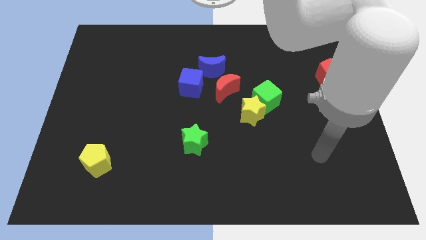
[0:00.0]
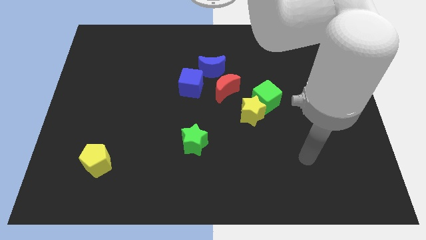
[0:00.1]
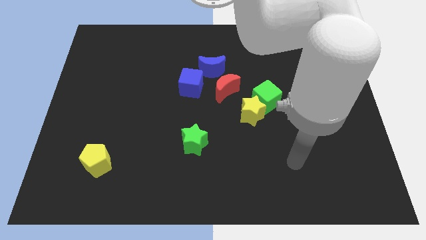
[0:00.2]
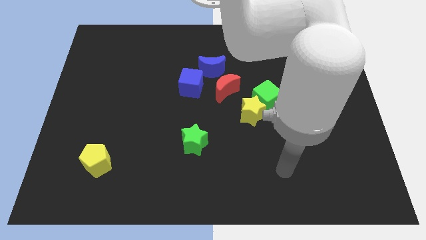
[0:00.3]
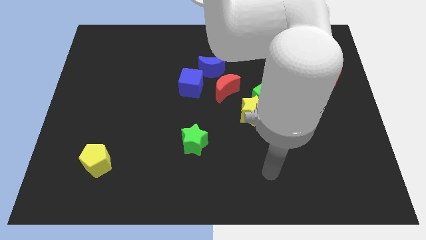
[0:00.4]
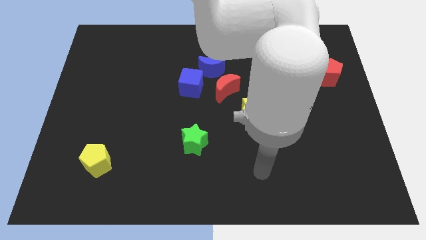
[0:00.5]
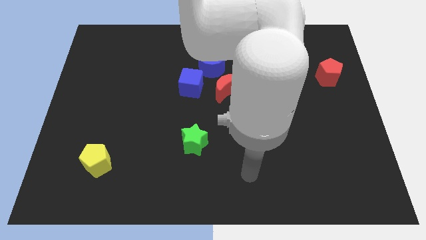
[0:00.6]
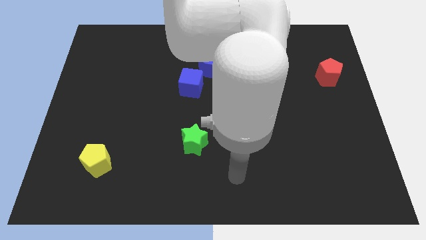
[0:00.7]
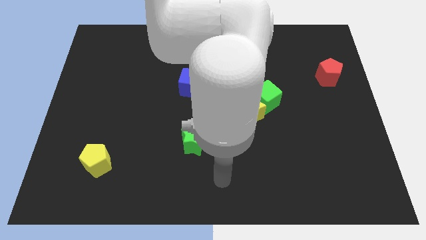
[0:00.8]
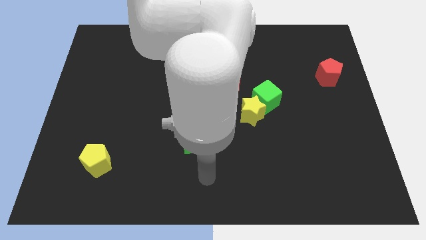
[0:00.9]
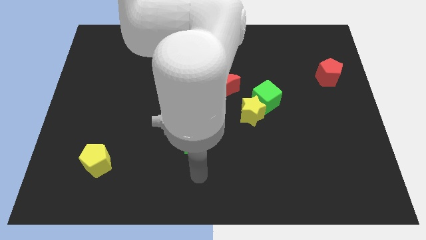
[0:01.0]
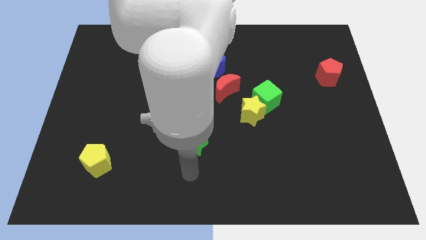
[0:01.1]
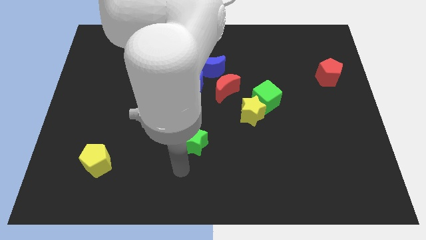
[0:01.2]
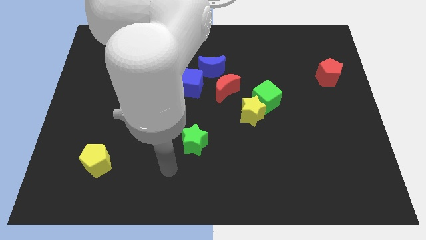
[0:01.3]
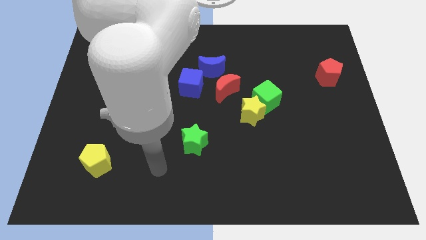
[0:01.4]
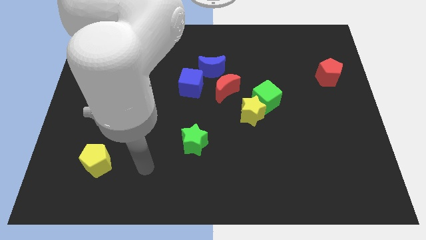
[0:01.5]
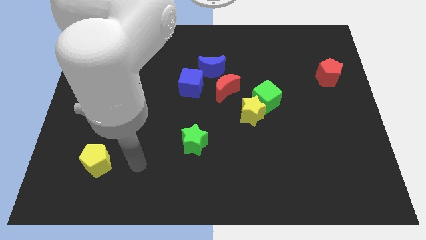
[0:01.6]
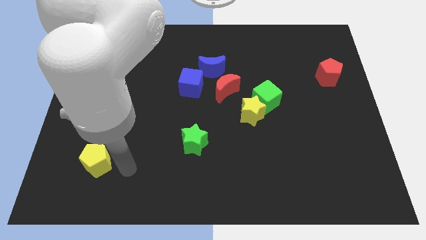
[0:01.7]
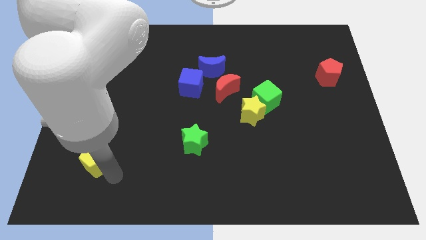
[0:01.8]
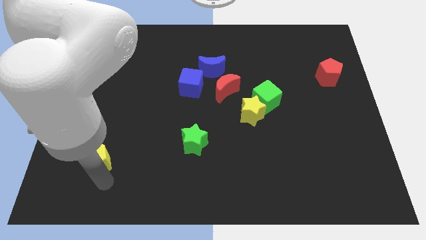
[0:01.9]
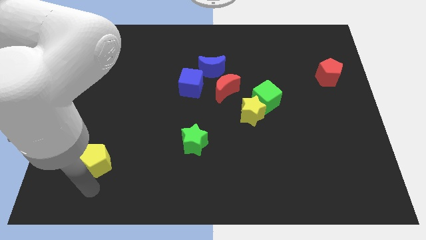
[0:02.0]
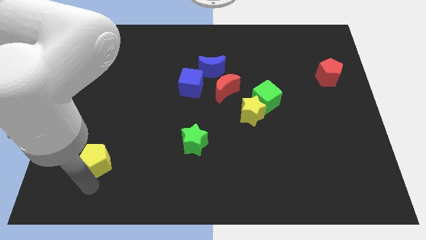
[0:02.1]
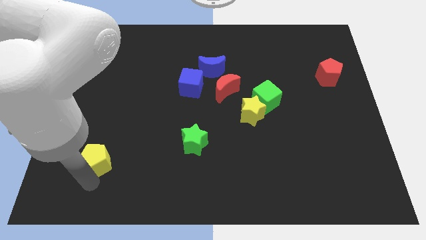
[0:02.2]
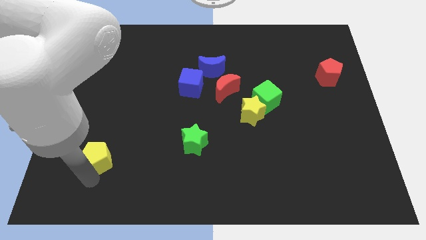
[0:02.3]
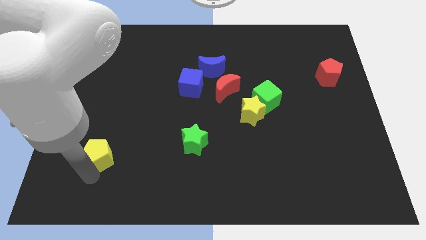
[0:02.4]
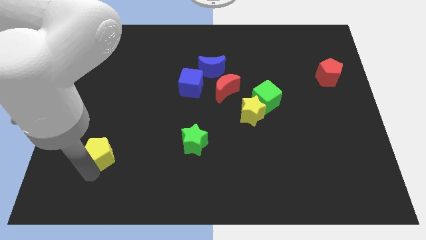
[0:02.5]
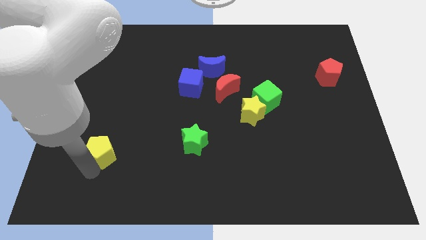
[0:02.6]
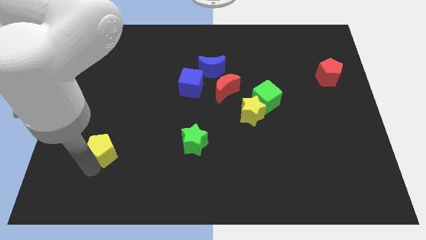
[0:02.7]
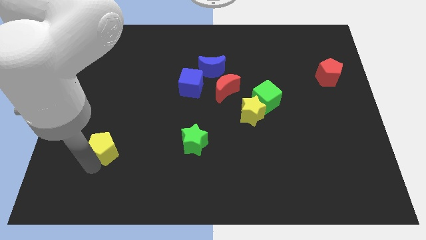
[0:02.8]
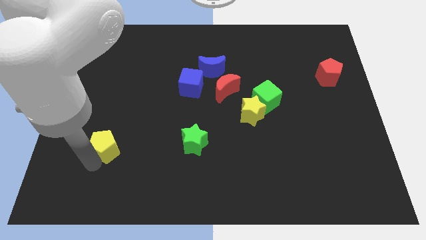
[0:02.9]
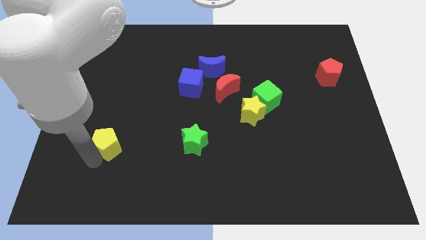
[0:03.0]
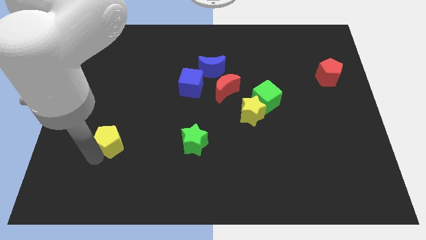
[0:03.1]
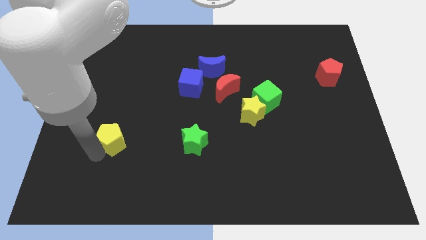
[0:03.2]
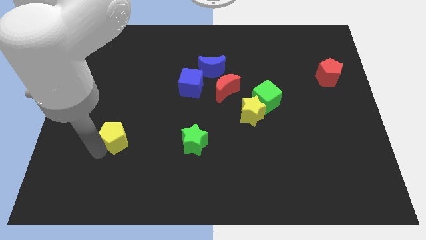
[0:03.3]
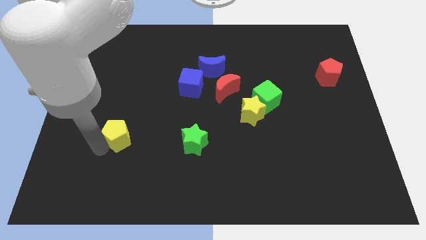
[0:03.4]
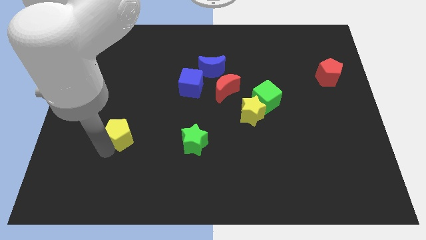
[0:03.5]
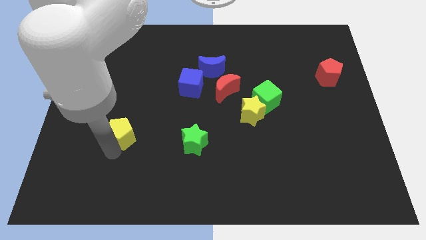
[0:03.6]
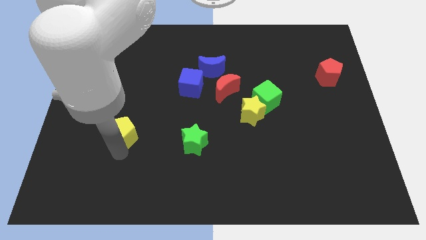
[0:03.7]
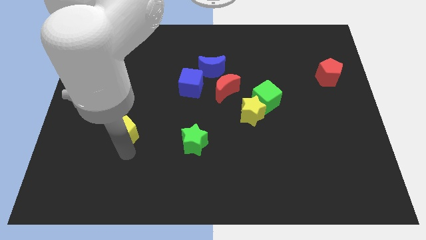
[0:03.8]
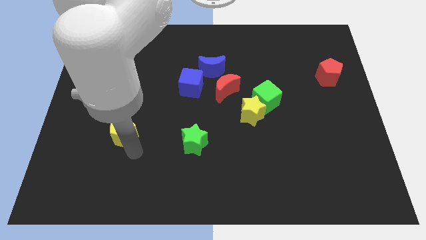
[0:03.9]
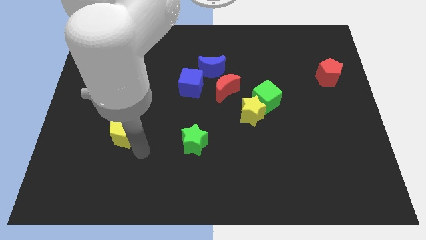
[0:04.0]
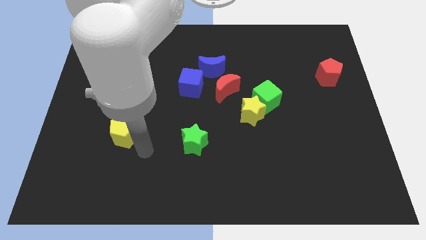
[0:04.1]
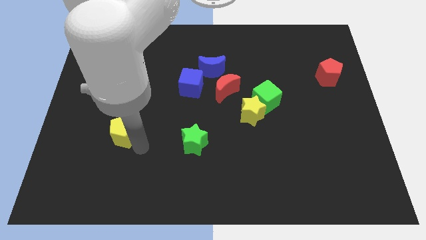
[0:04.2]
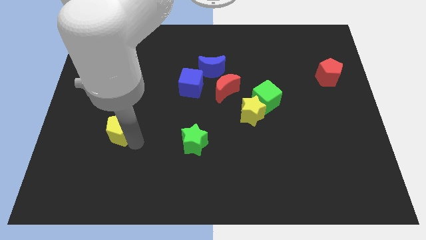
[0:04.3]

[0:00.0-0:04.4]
slide the yellow pentagon a bit up

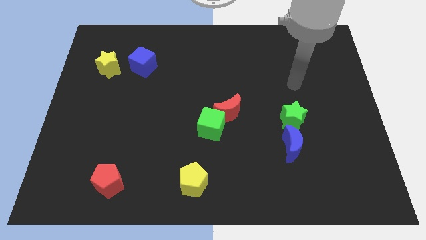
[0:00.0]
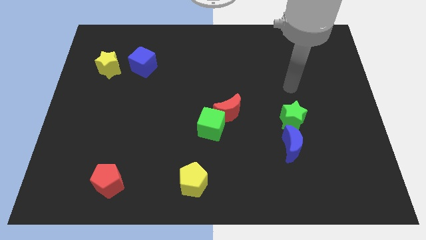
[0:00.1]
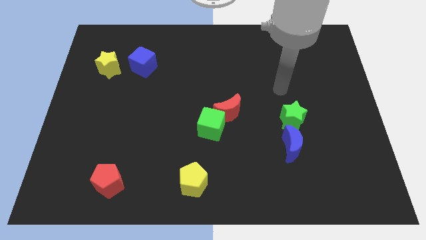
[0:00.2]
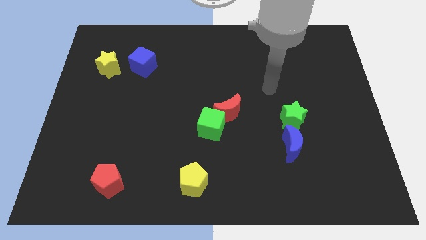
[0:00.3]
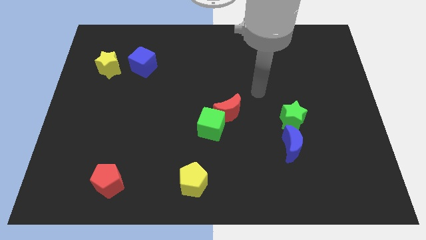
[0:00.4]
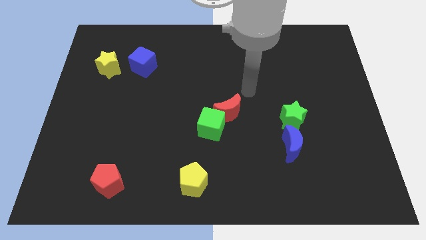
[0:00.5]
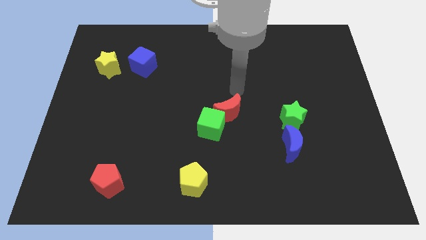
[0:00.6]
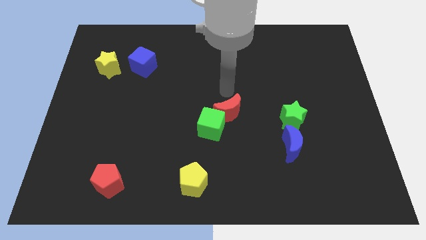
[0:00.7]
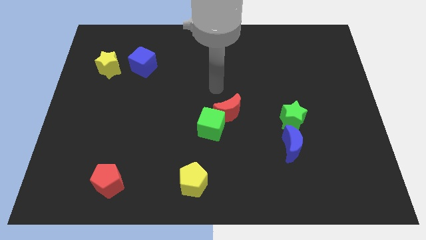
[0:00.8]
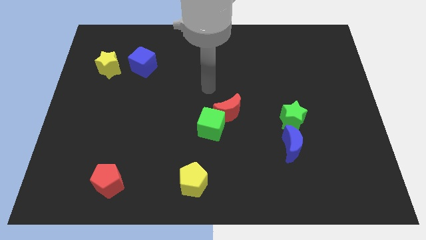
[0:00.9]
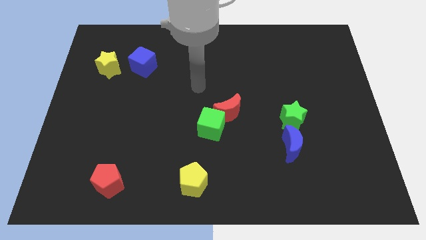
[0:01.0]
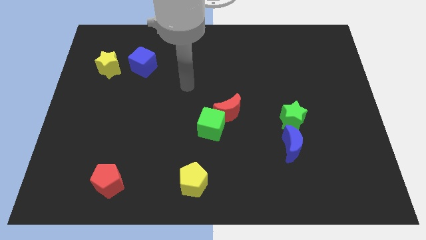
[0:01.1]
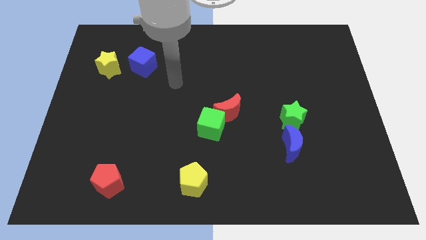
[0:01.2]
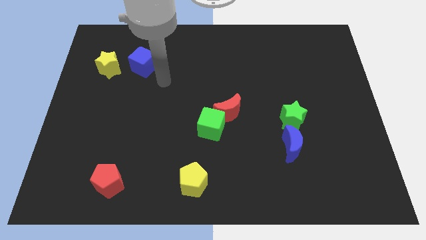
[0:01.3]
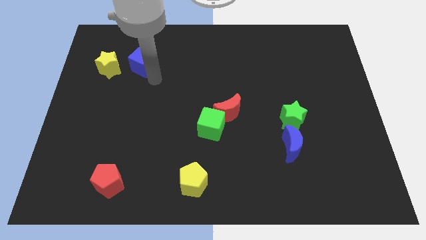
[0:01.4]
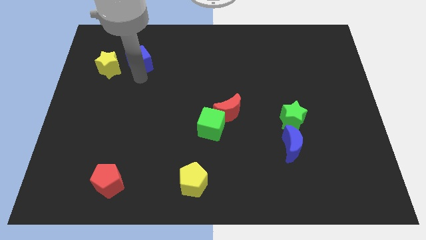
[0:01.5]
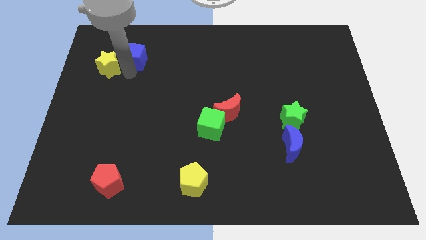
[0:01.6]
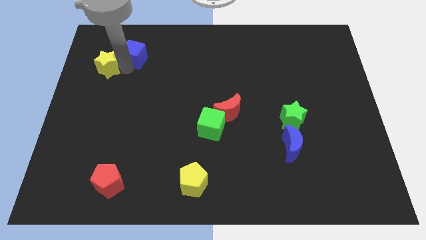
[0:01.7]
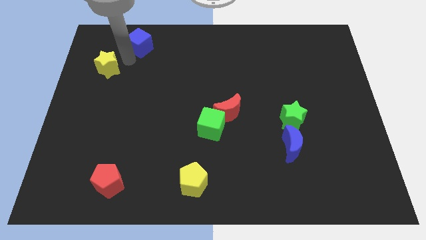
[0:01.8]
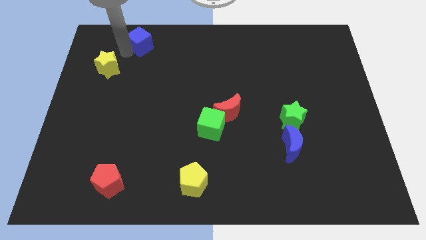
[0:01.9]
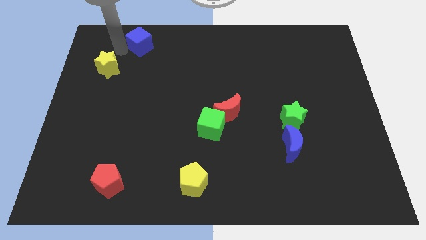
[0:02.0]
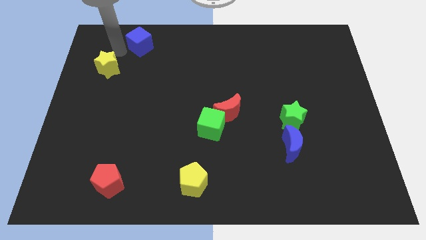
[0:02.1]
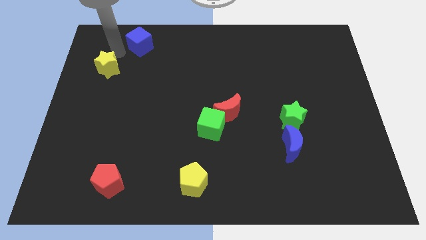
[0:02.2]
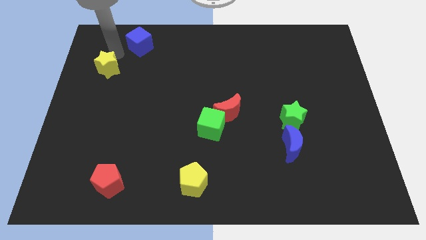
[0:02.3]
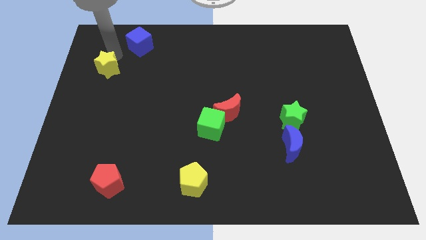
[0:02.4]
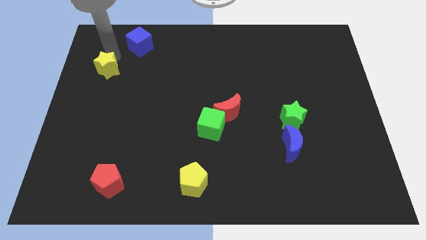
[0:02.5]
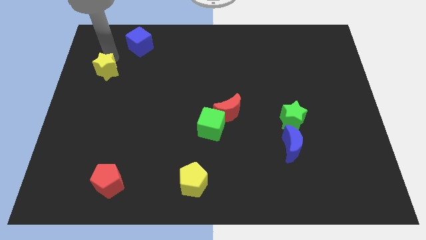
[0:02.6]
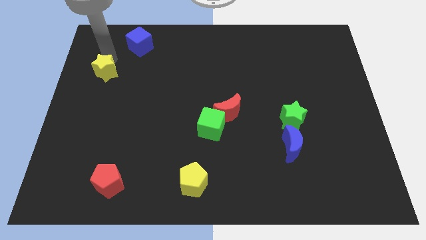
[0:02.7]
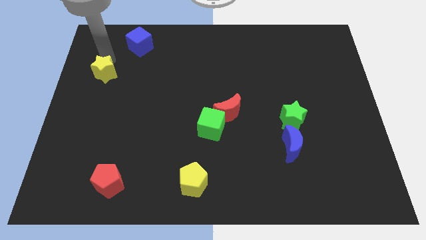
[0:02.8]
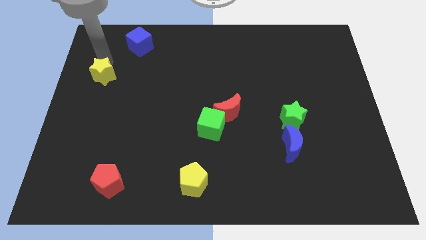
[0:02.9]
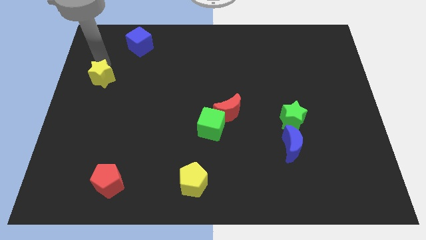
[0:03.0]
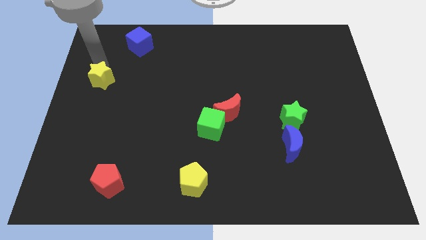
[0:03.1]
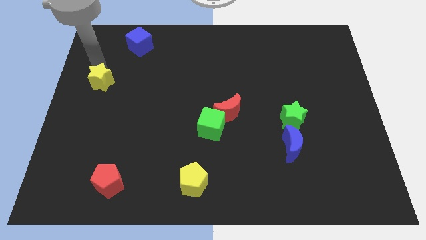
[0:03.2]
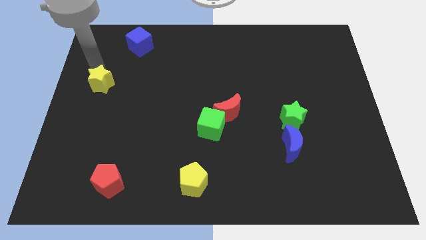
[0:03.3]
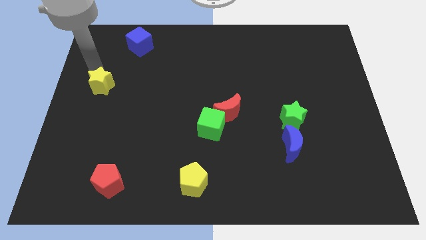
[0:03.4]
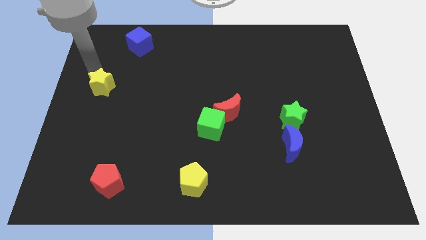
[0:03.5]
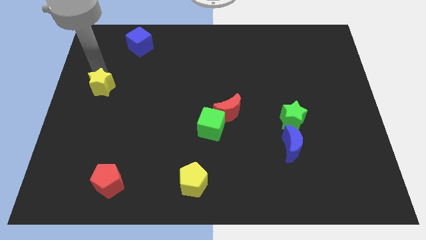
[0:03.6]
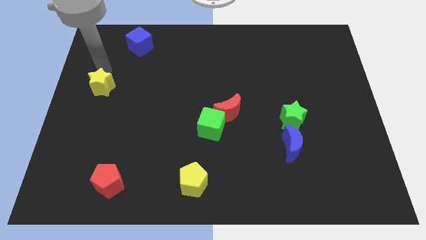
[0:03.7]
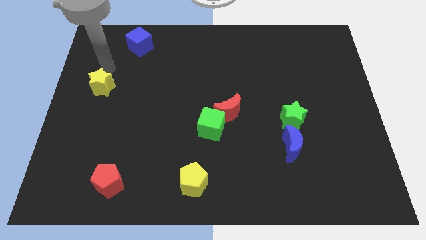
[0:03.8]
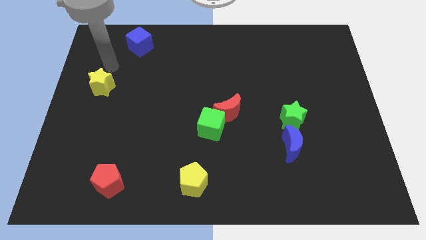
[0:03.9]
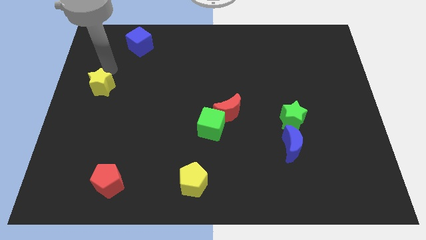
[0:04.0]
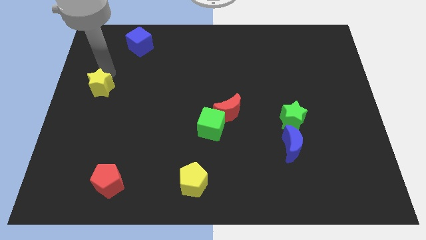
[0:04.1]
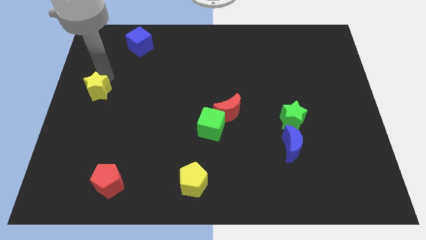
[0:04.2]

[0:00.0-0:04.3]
move the yellow star down a little bit
